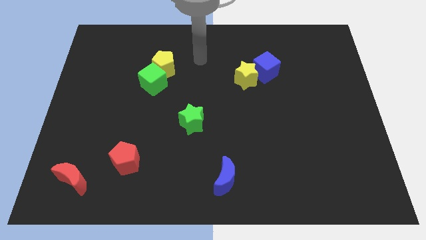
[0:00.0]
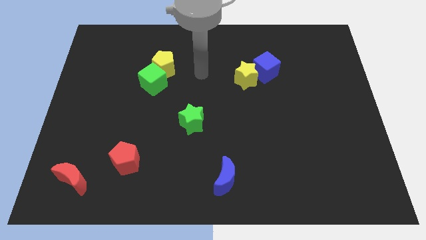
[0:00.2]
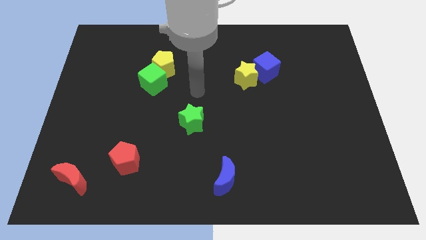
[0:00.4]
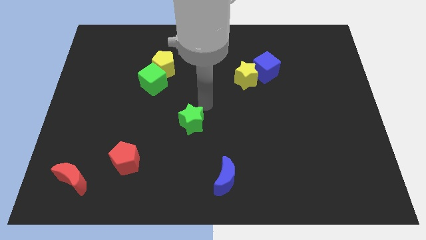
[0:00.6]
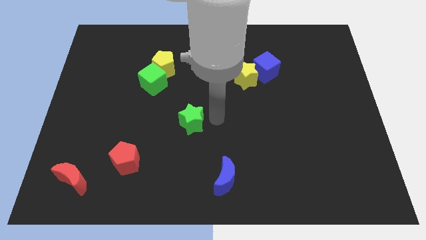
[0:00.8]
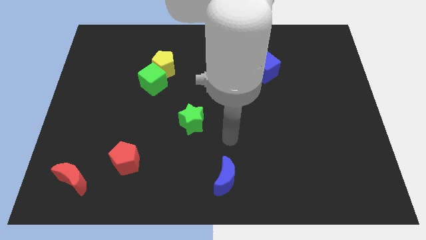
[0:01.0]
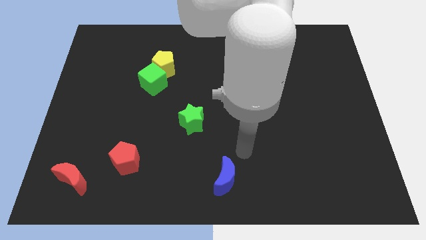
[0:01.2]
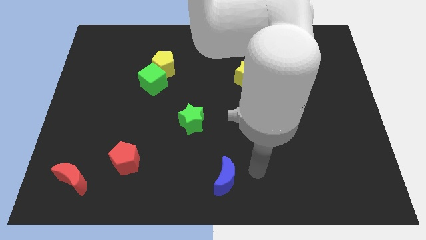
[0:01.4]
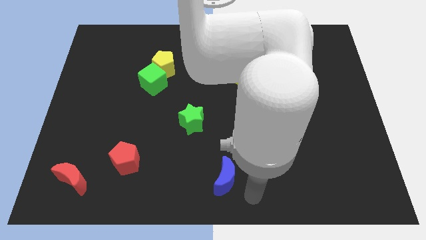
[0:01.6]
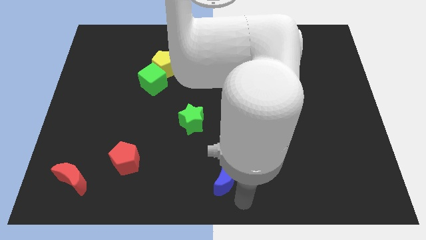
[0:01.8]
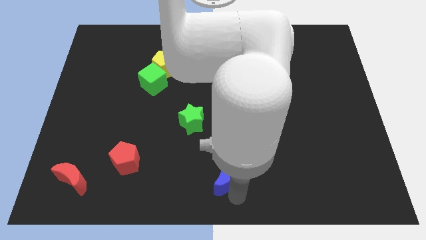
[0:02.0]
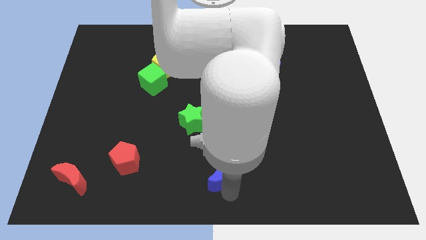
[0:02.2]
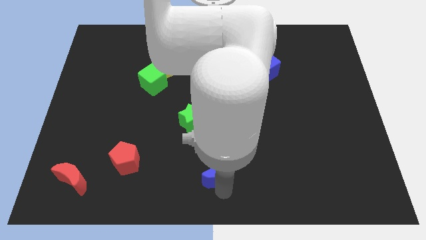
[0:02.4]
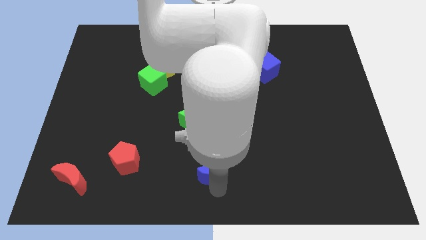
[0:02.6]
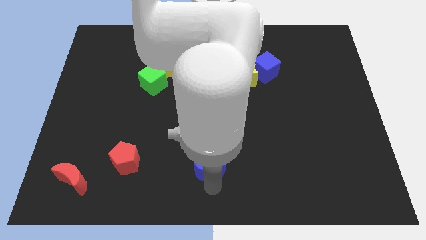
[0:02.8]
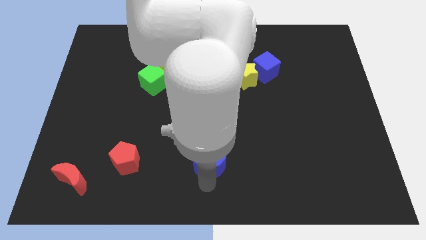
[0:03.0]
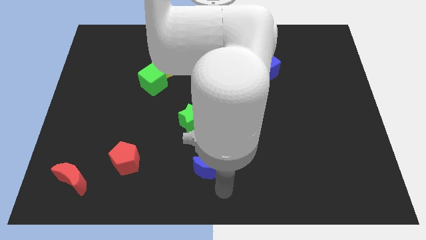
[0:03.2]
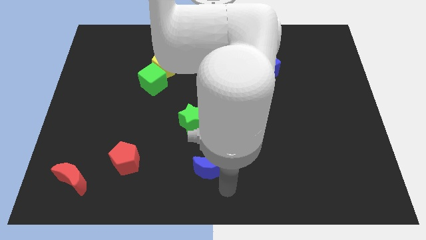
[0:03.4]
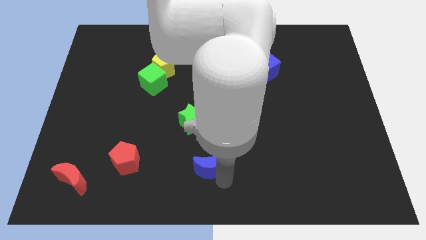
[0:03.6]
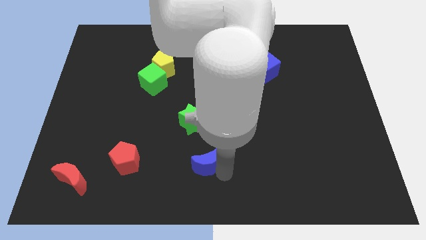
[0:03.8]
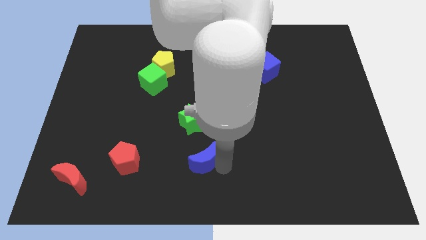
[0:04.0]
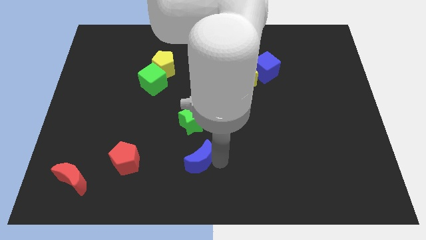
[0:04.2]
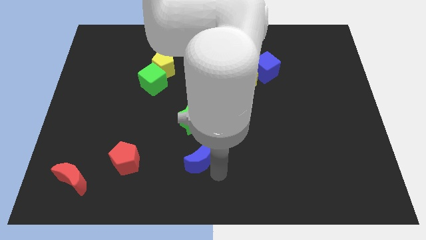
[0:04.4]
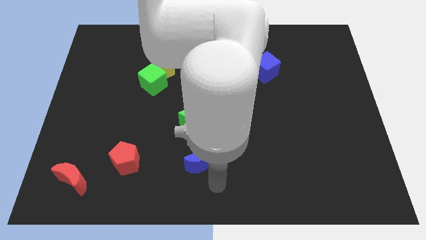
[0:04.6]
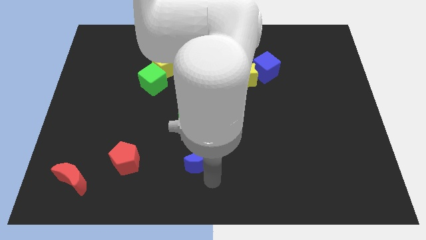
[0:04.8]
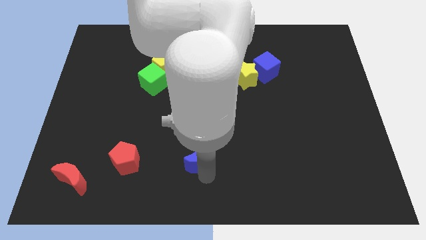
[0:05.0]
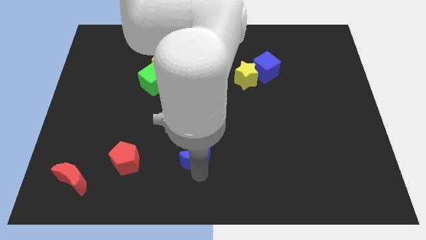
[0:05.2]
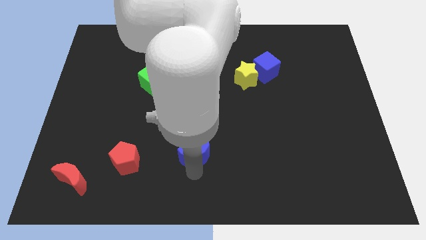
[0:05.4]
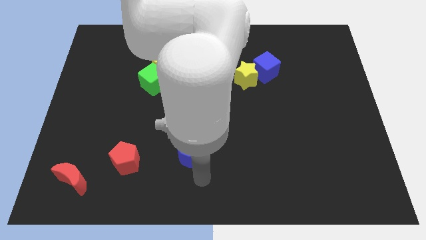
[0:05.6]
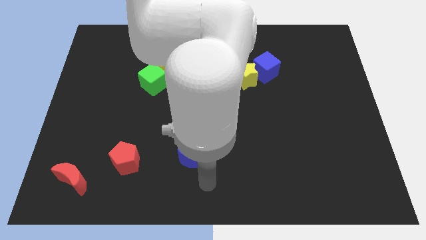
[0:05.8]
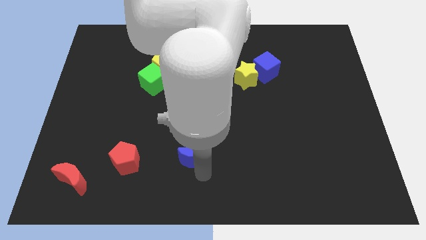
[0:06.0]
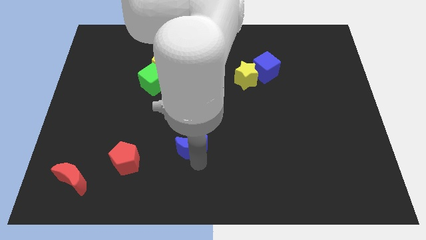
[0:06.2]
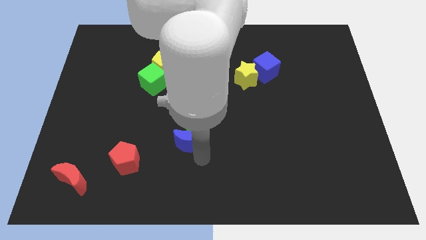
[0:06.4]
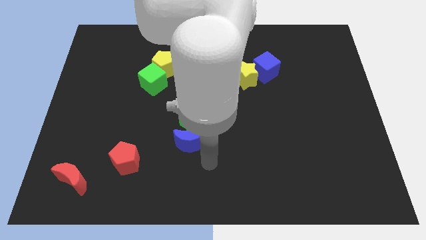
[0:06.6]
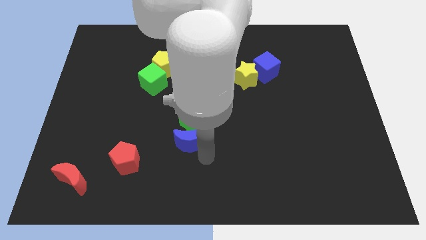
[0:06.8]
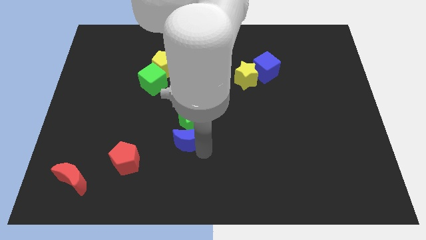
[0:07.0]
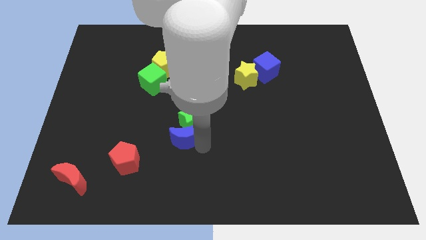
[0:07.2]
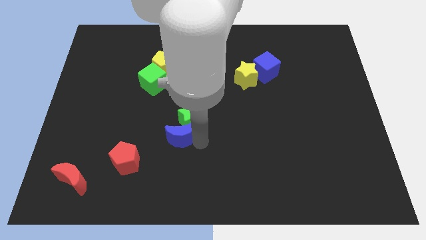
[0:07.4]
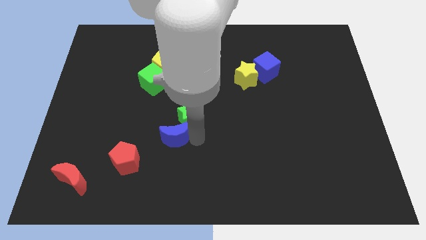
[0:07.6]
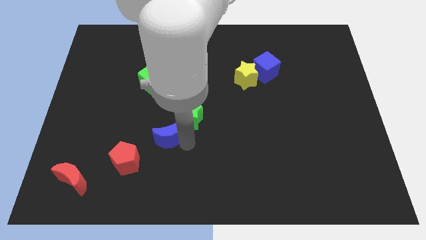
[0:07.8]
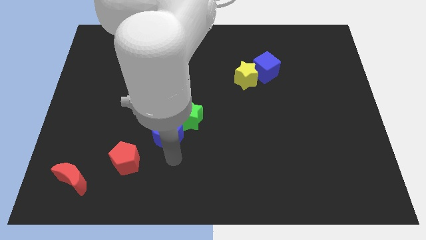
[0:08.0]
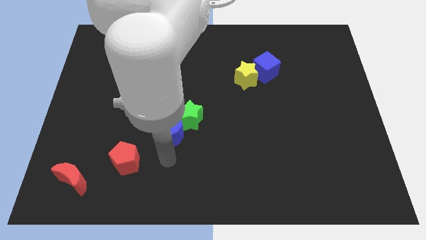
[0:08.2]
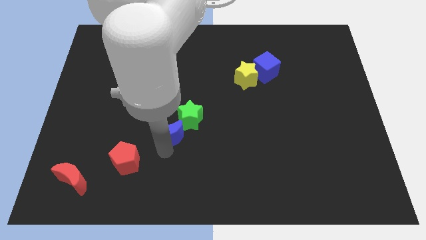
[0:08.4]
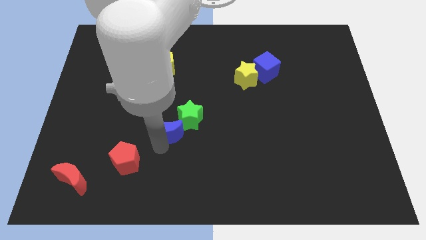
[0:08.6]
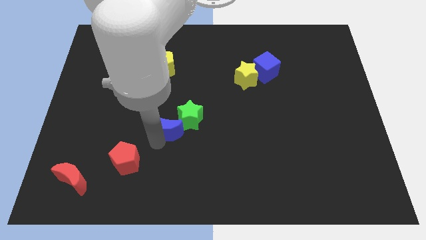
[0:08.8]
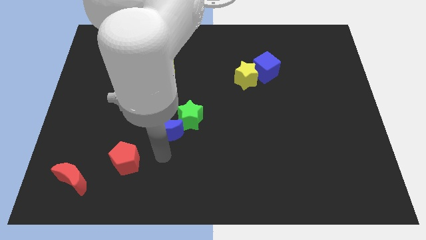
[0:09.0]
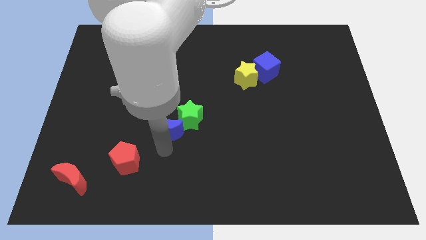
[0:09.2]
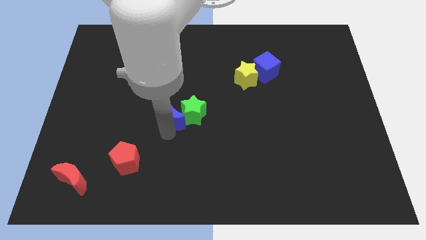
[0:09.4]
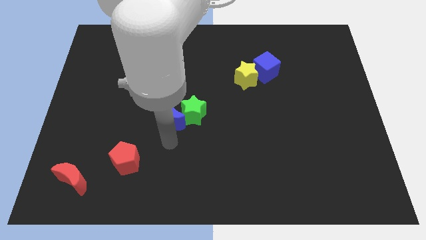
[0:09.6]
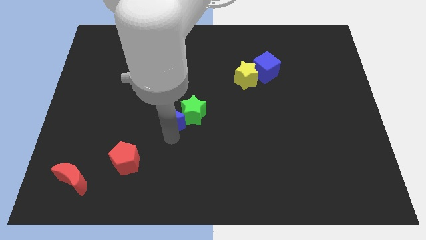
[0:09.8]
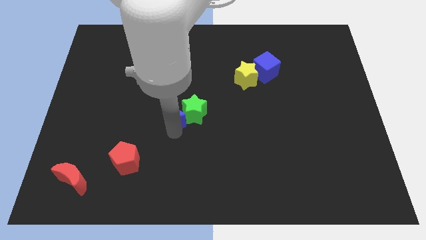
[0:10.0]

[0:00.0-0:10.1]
move the blue moon diagonally down and to the right of the green cube

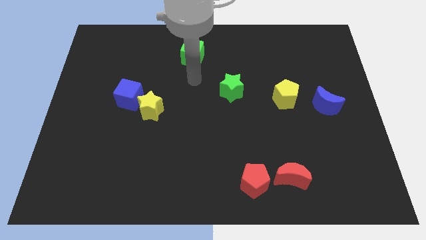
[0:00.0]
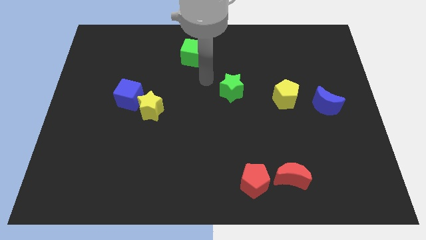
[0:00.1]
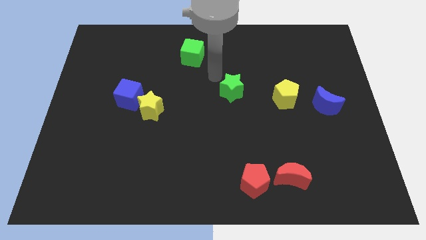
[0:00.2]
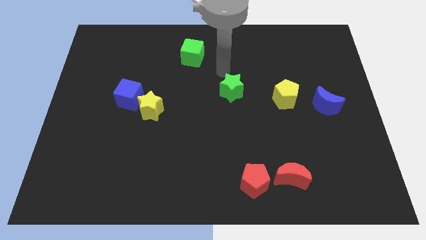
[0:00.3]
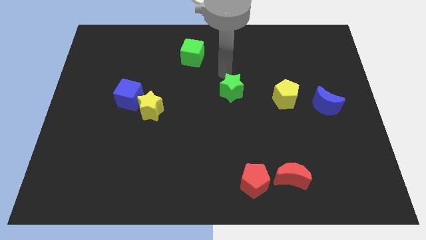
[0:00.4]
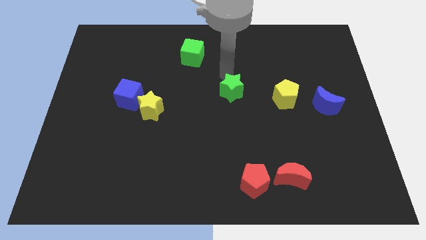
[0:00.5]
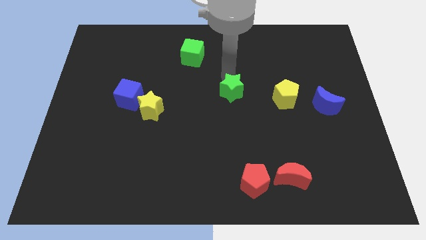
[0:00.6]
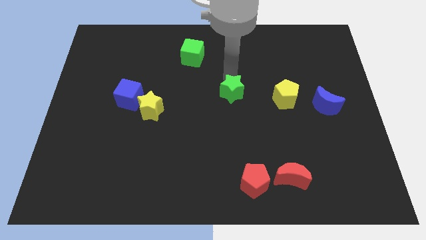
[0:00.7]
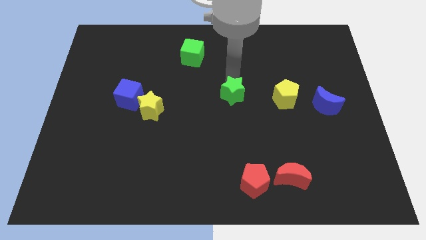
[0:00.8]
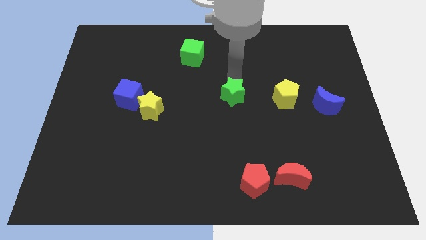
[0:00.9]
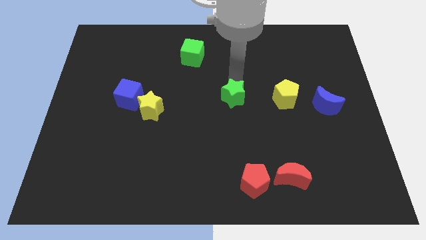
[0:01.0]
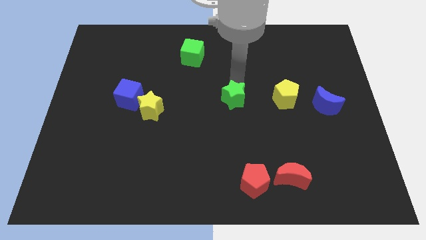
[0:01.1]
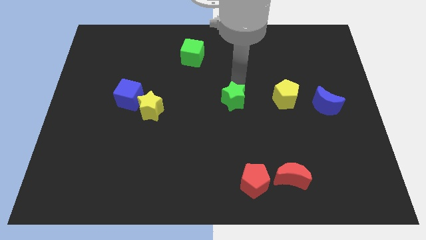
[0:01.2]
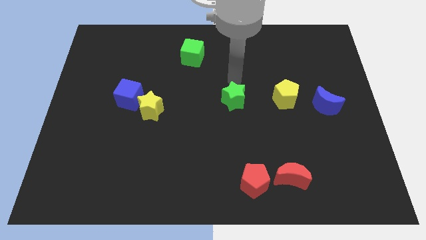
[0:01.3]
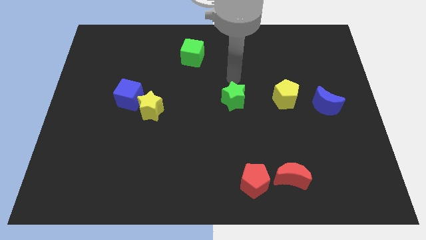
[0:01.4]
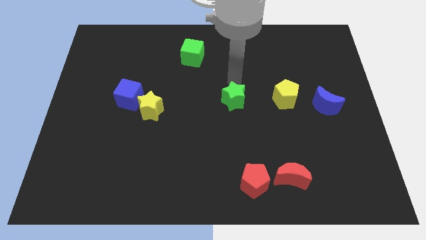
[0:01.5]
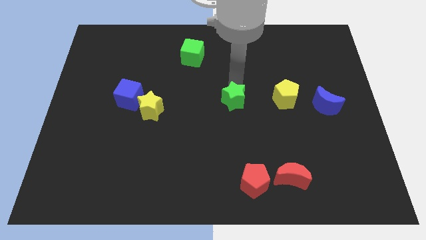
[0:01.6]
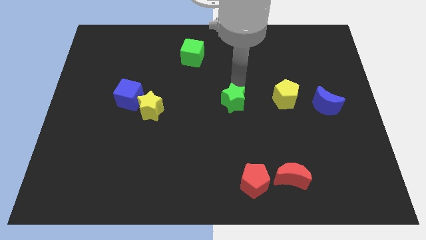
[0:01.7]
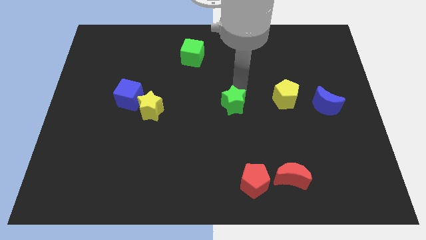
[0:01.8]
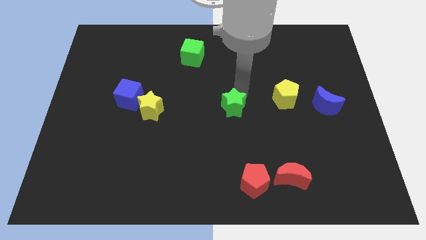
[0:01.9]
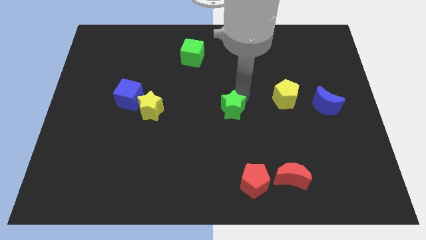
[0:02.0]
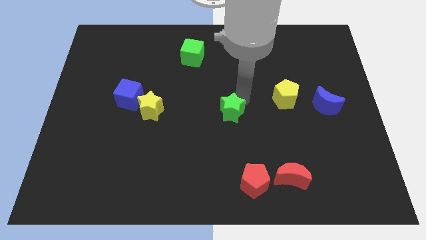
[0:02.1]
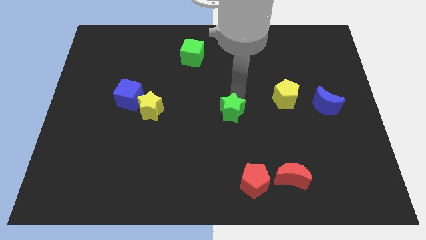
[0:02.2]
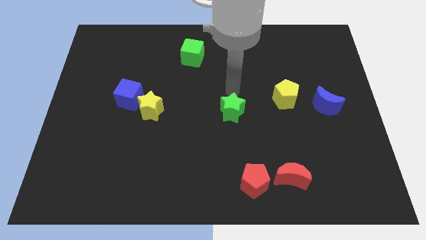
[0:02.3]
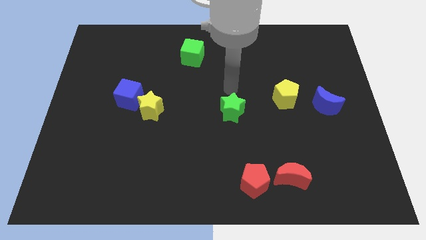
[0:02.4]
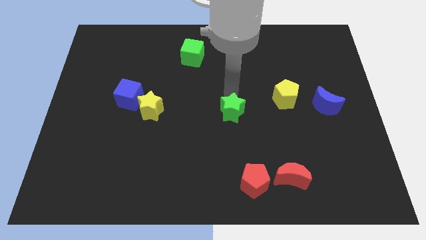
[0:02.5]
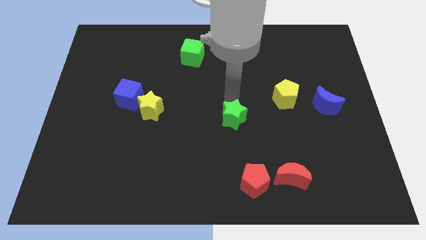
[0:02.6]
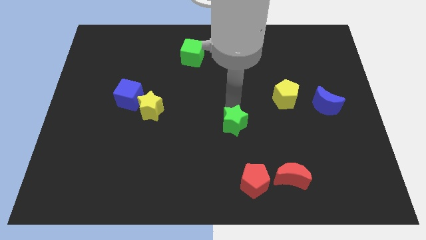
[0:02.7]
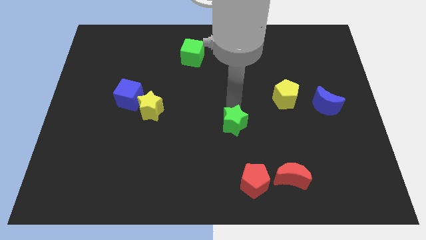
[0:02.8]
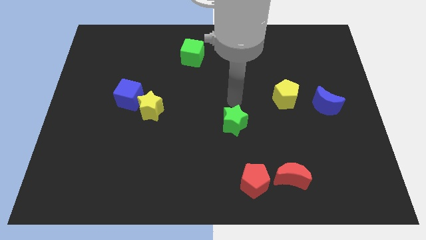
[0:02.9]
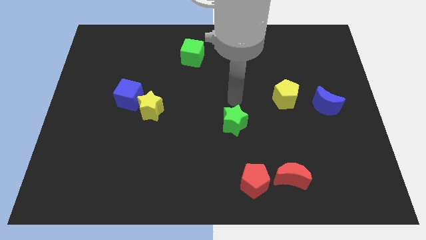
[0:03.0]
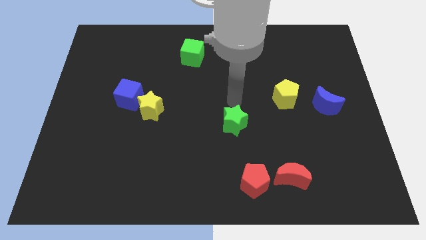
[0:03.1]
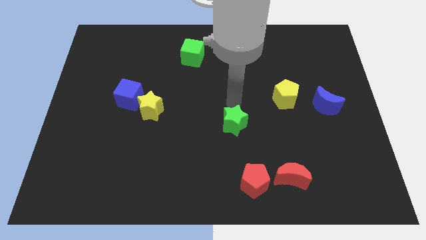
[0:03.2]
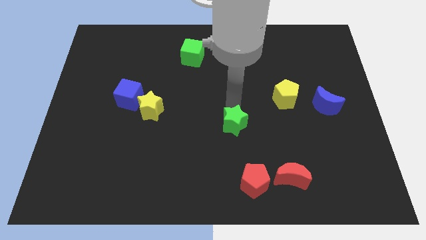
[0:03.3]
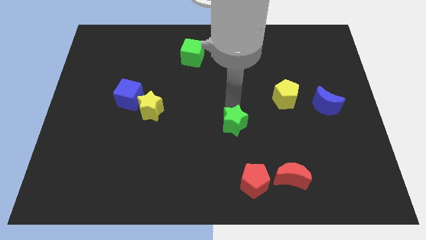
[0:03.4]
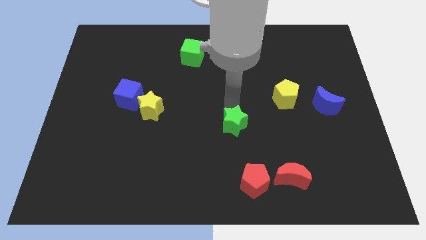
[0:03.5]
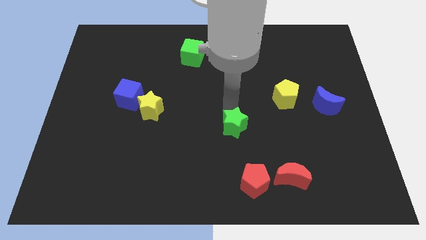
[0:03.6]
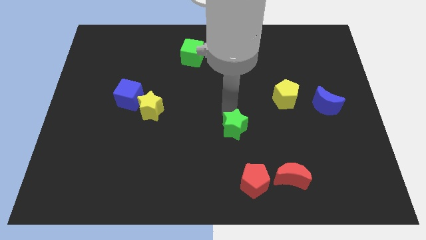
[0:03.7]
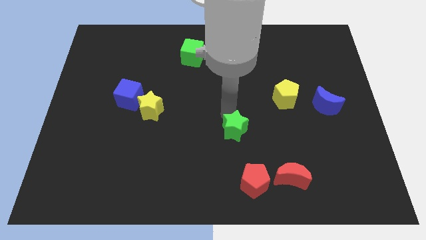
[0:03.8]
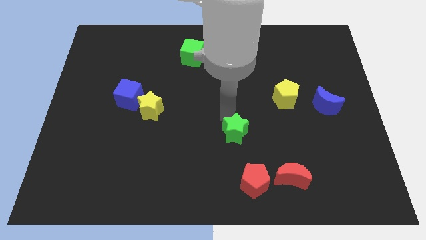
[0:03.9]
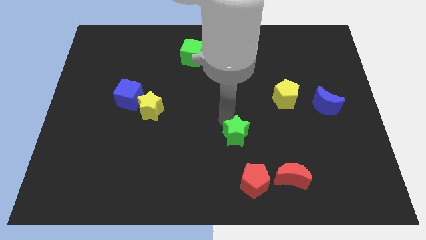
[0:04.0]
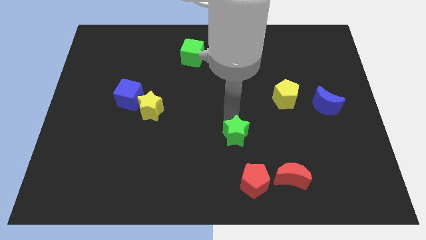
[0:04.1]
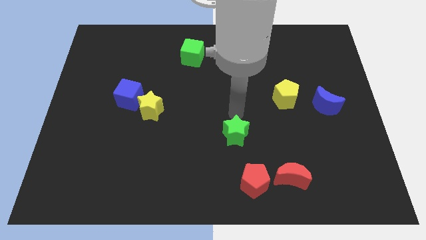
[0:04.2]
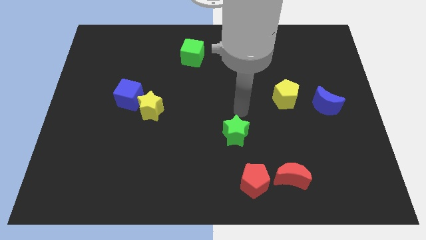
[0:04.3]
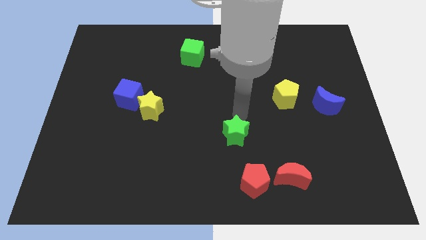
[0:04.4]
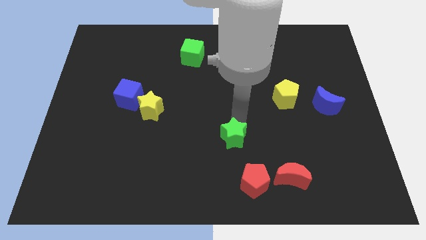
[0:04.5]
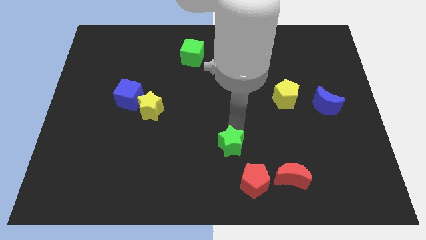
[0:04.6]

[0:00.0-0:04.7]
push the green star to the top left of the red pentagon
